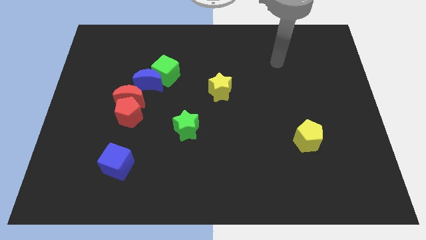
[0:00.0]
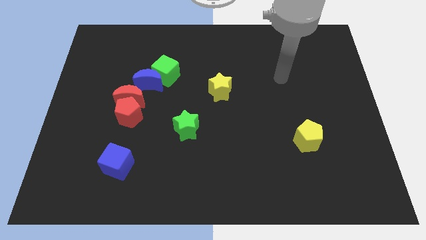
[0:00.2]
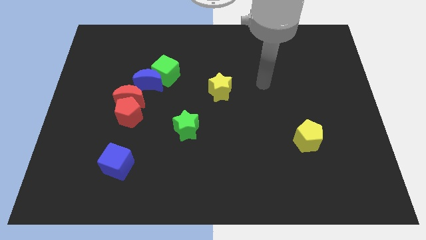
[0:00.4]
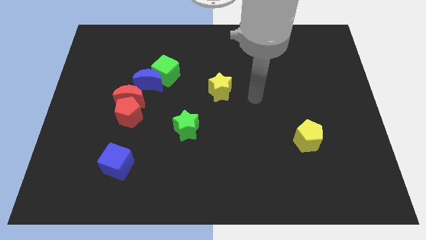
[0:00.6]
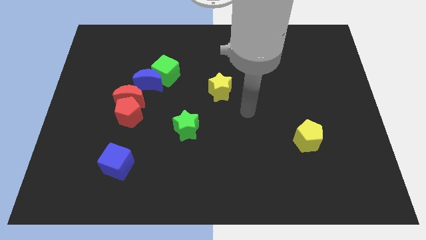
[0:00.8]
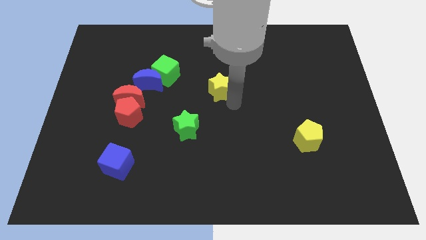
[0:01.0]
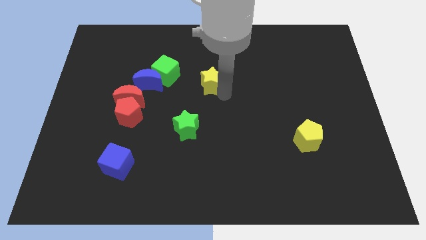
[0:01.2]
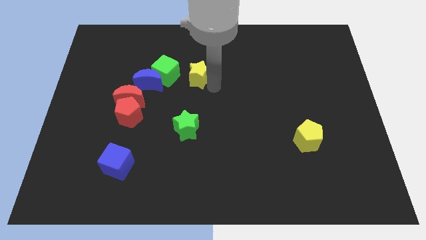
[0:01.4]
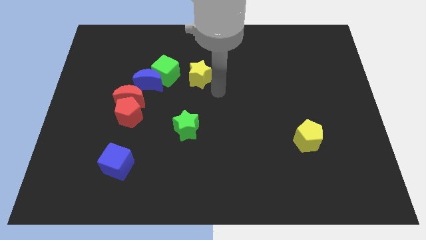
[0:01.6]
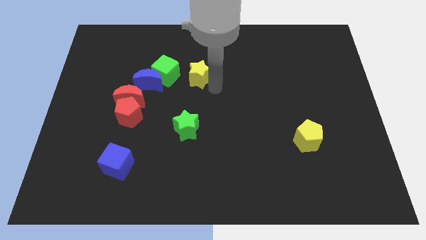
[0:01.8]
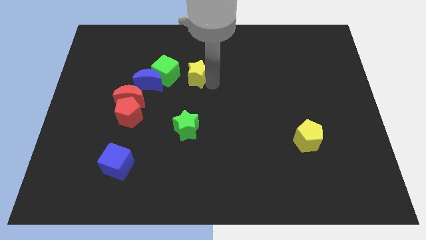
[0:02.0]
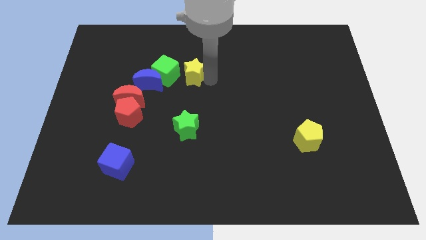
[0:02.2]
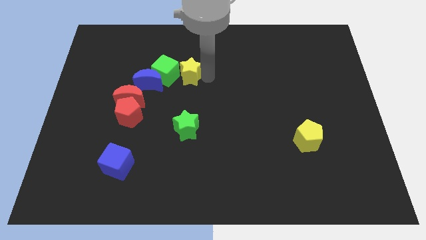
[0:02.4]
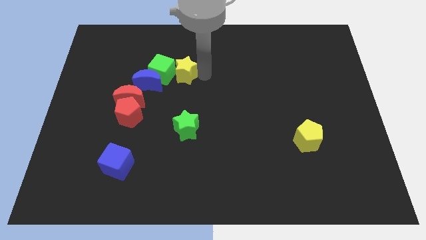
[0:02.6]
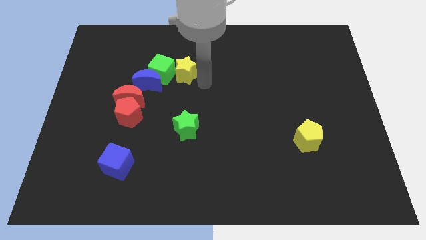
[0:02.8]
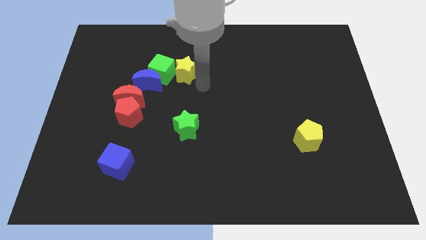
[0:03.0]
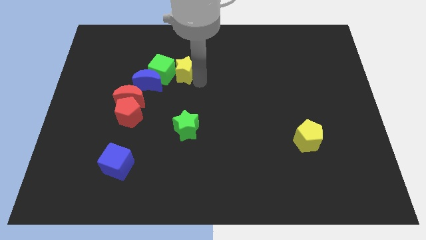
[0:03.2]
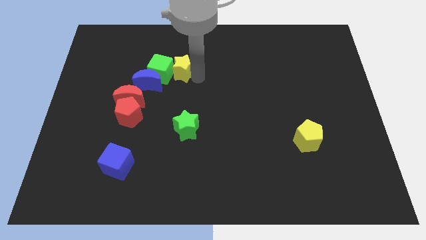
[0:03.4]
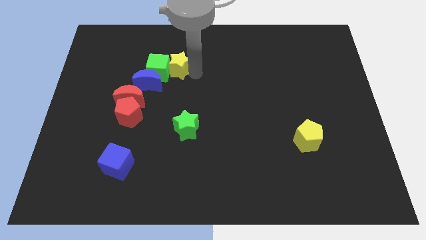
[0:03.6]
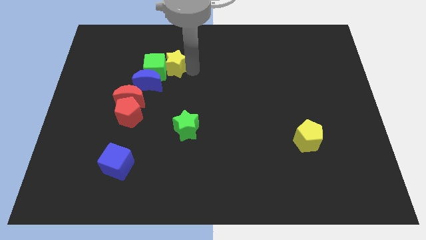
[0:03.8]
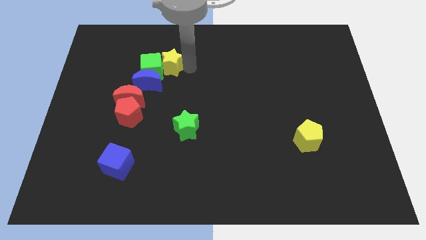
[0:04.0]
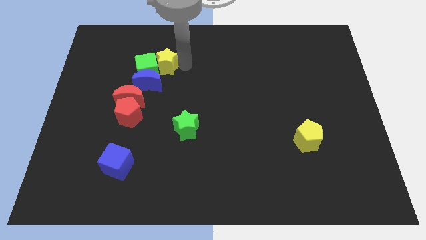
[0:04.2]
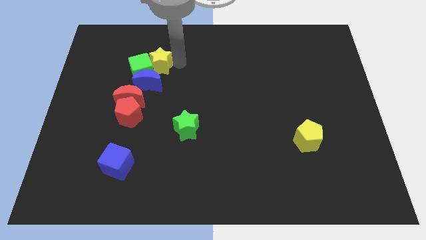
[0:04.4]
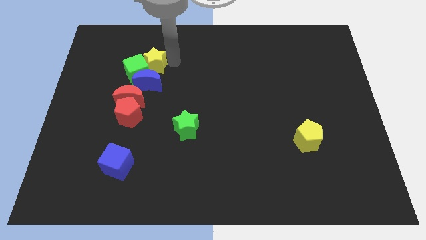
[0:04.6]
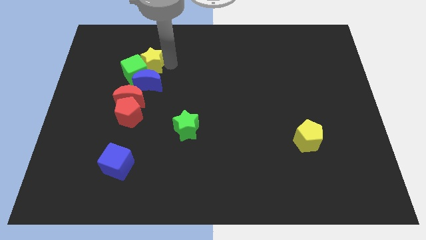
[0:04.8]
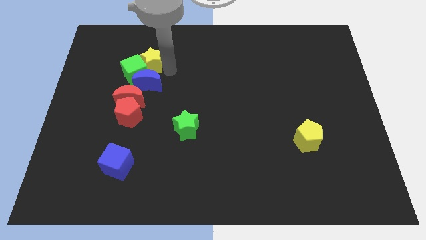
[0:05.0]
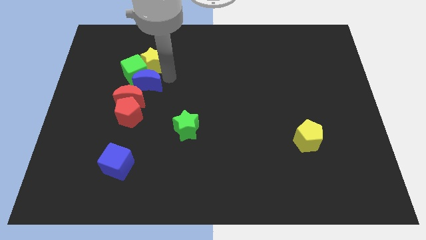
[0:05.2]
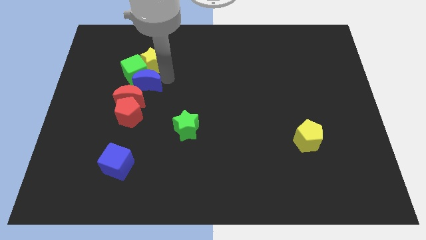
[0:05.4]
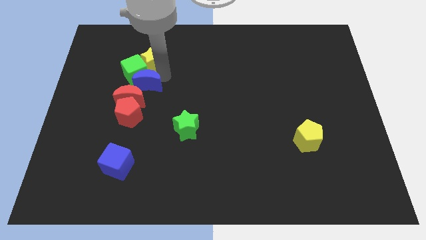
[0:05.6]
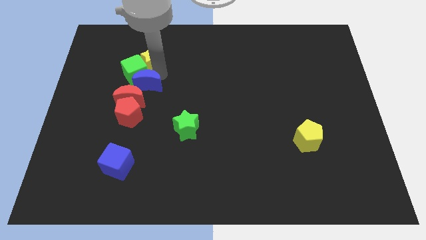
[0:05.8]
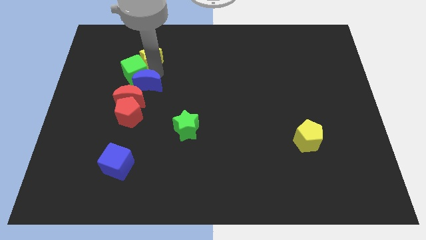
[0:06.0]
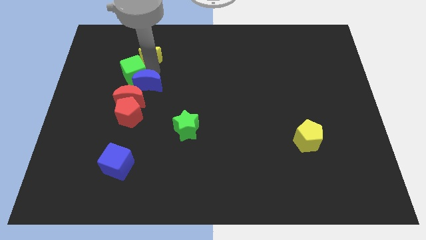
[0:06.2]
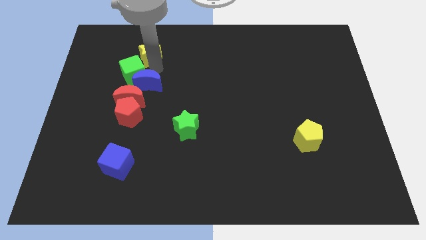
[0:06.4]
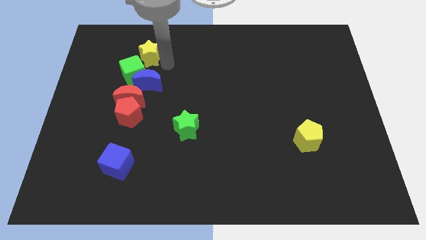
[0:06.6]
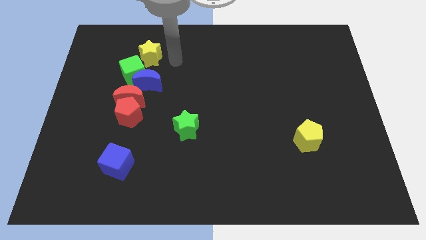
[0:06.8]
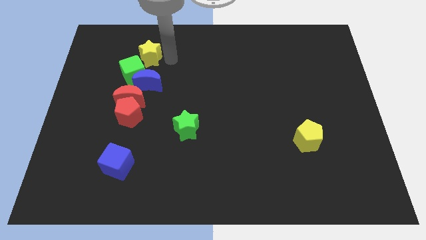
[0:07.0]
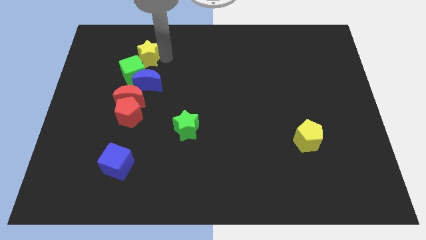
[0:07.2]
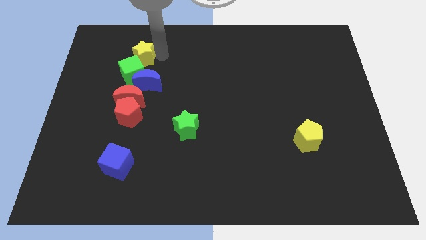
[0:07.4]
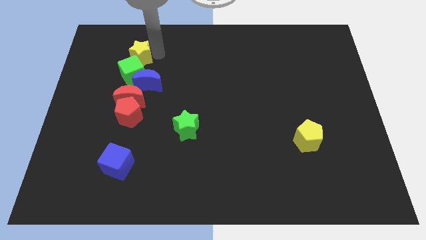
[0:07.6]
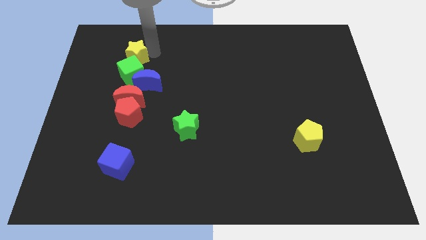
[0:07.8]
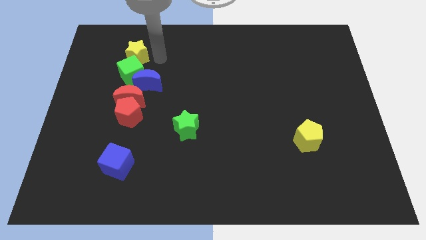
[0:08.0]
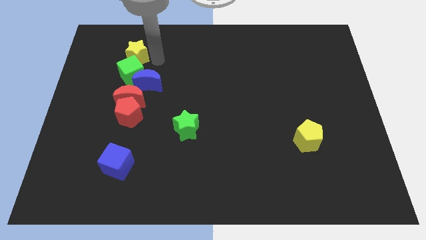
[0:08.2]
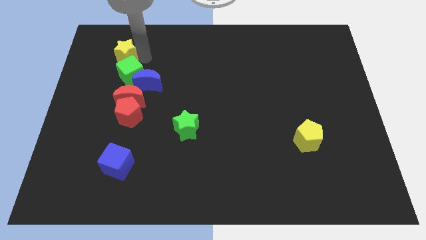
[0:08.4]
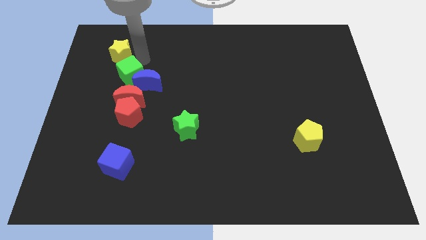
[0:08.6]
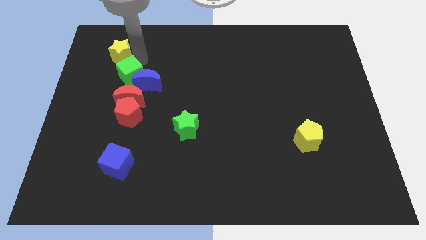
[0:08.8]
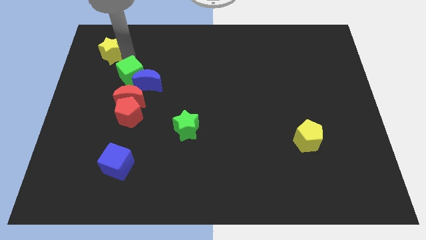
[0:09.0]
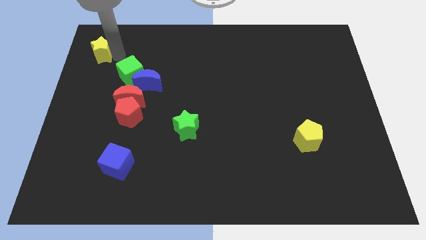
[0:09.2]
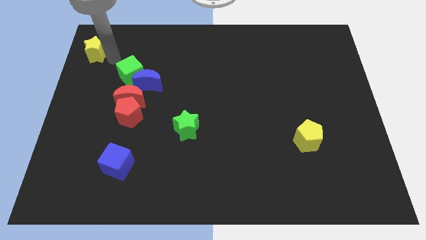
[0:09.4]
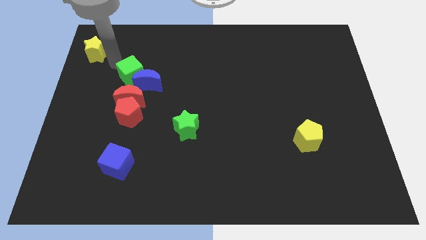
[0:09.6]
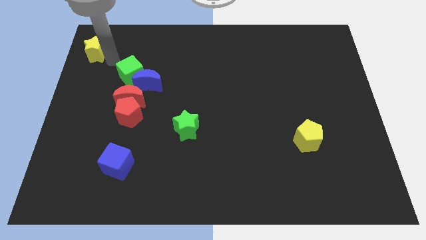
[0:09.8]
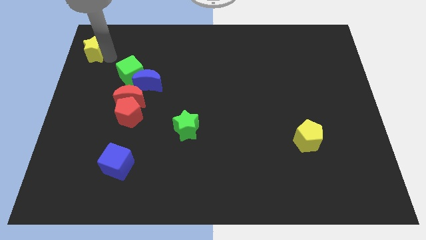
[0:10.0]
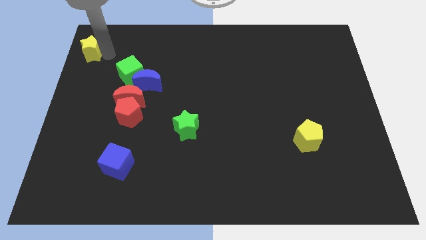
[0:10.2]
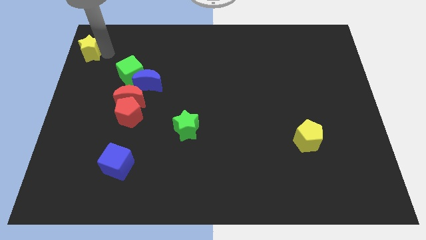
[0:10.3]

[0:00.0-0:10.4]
push the yellow star to the top left
